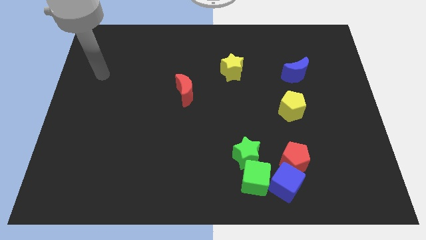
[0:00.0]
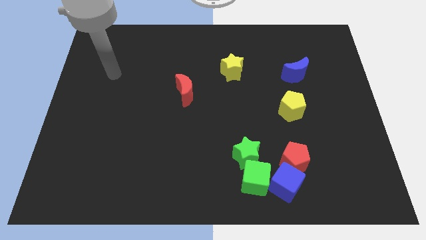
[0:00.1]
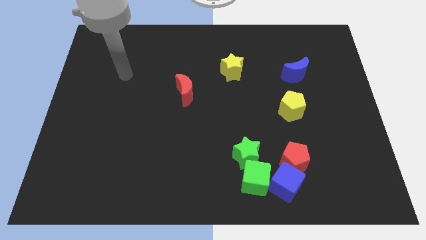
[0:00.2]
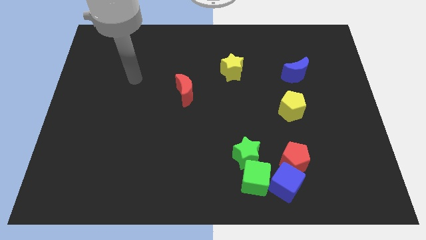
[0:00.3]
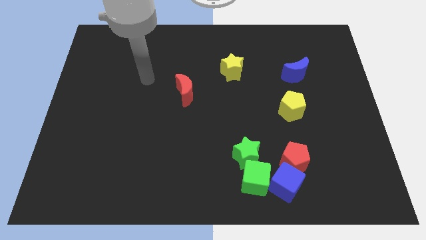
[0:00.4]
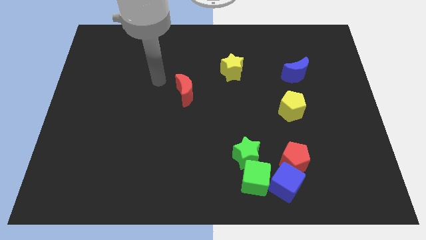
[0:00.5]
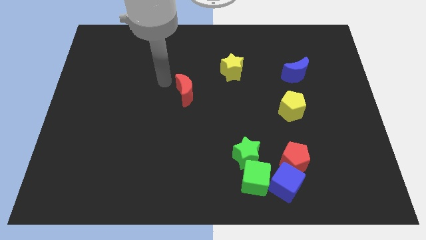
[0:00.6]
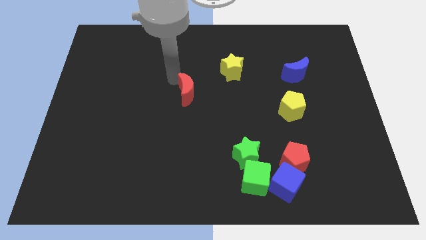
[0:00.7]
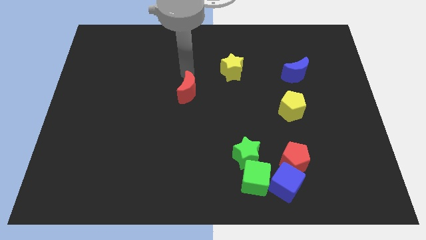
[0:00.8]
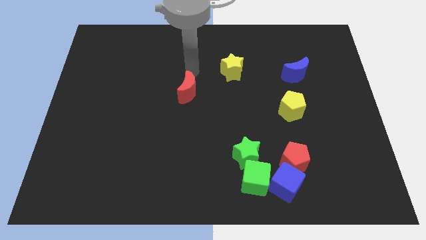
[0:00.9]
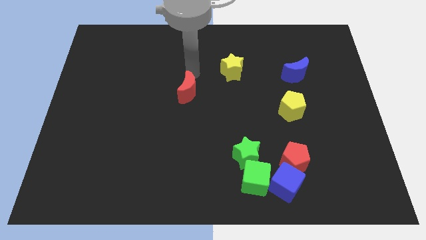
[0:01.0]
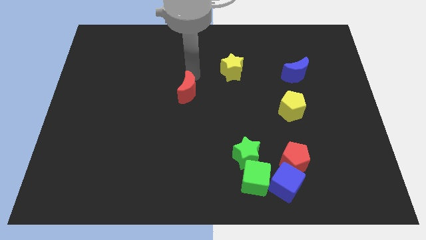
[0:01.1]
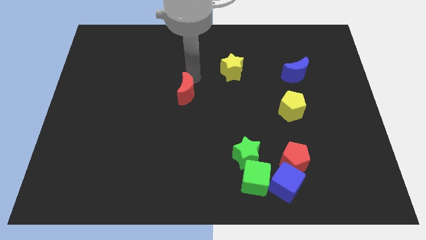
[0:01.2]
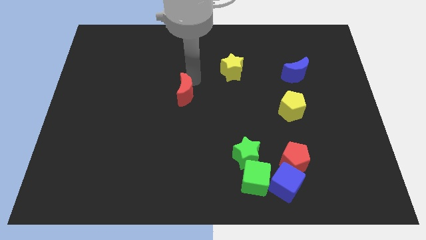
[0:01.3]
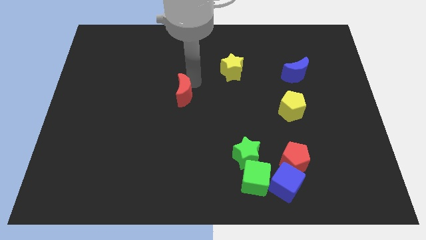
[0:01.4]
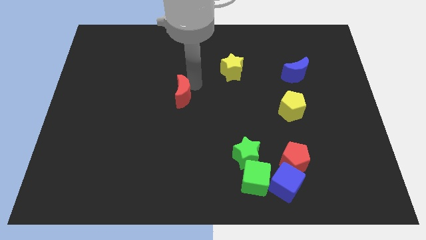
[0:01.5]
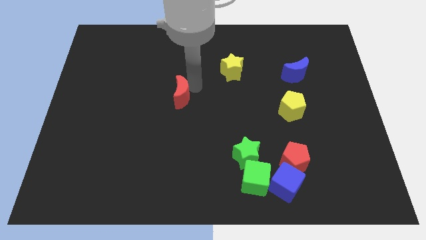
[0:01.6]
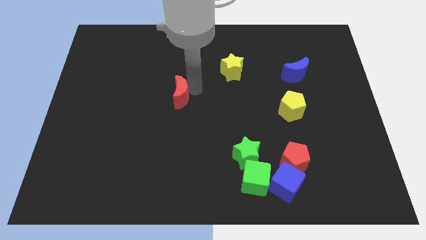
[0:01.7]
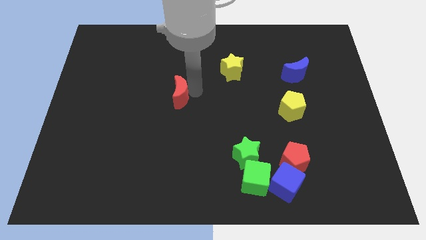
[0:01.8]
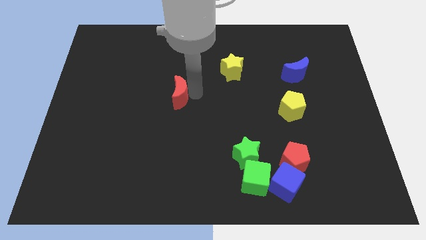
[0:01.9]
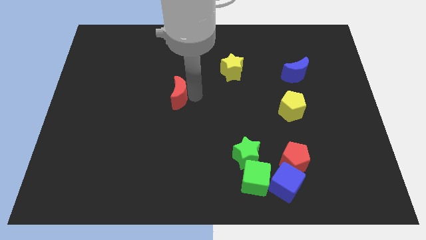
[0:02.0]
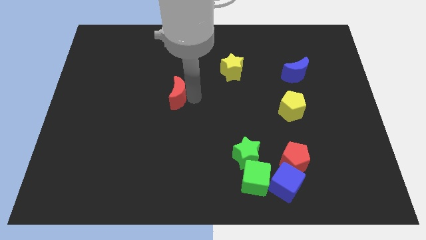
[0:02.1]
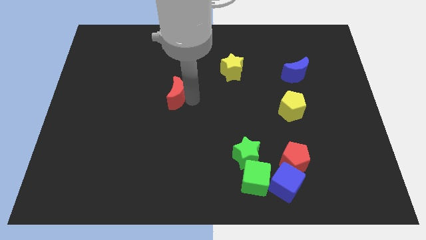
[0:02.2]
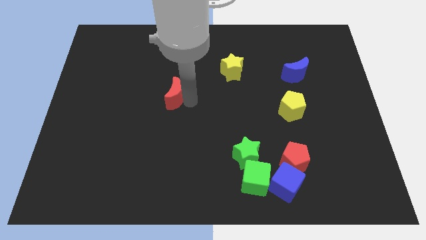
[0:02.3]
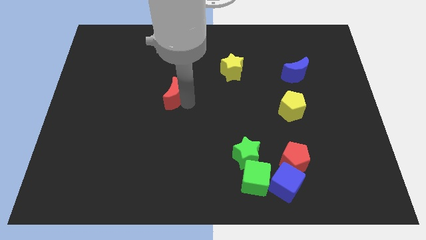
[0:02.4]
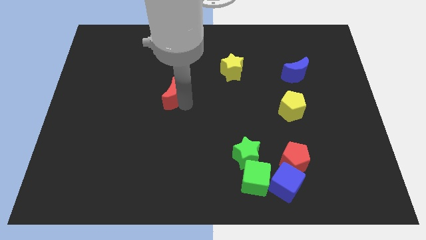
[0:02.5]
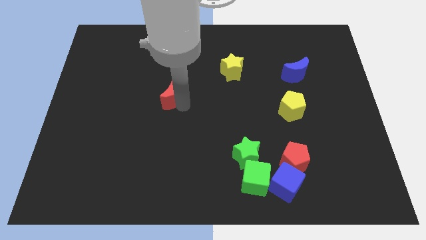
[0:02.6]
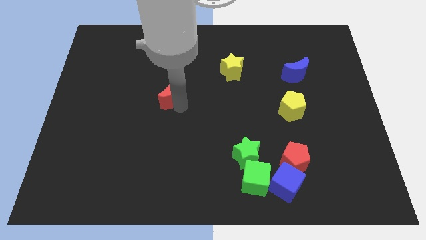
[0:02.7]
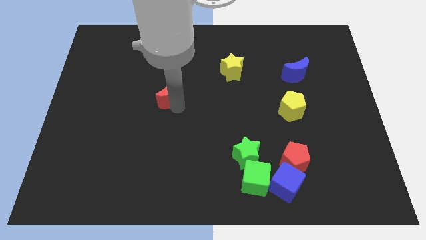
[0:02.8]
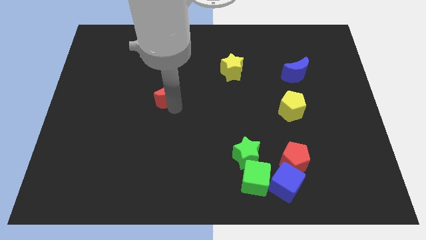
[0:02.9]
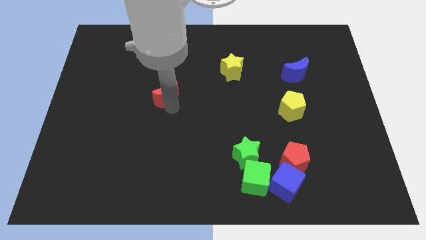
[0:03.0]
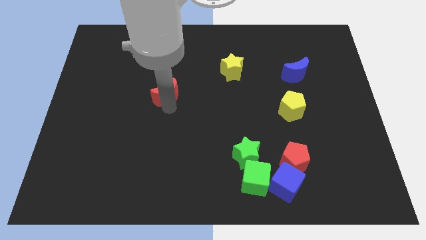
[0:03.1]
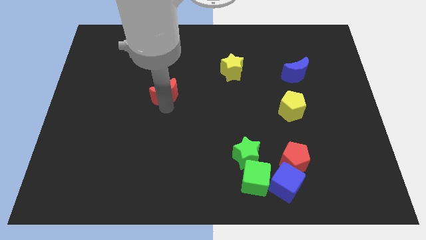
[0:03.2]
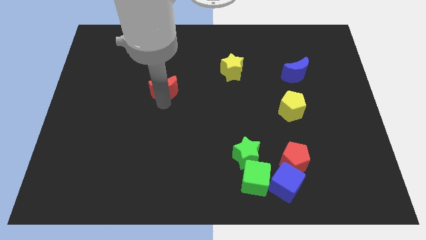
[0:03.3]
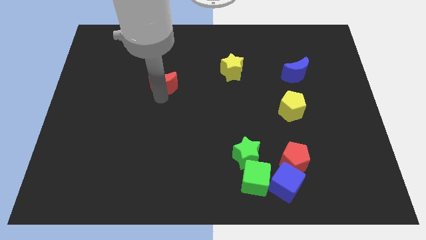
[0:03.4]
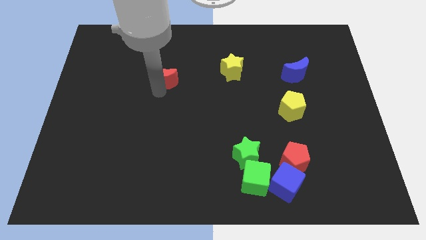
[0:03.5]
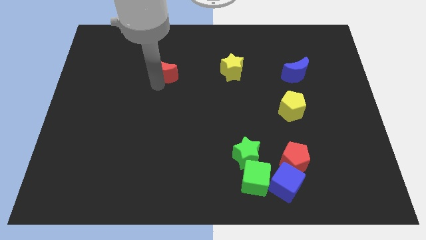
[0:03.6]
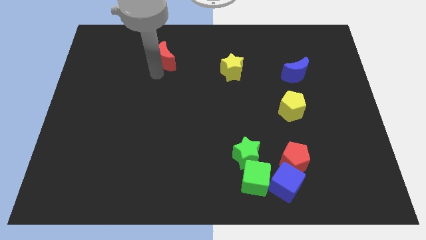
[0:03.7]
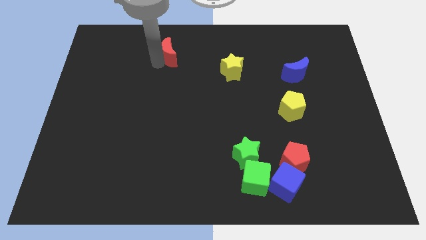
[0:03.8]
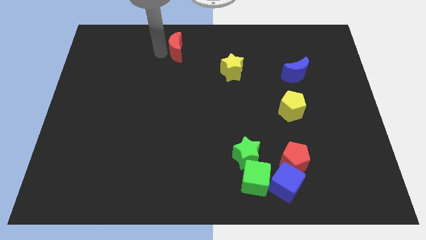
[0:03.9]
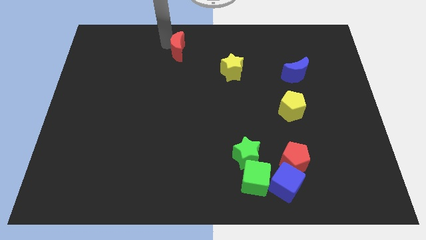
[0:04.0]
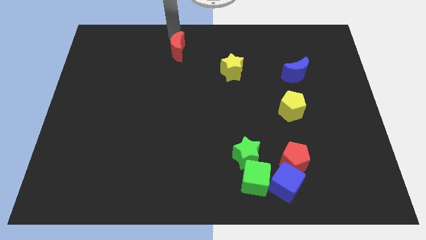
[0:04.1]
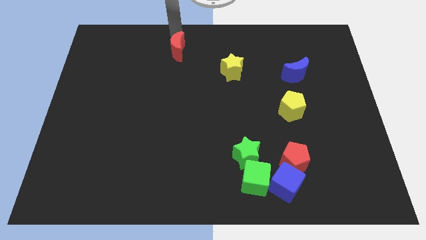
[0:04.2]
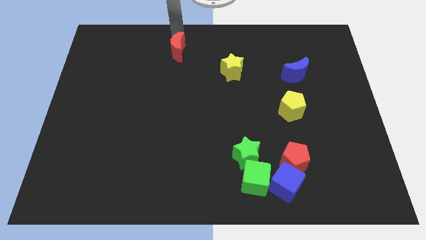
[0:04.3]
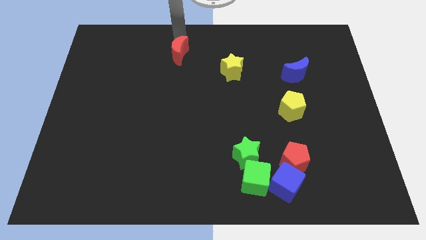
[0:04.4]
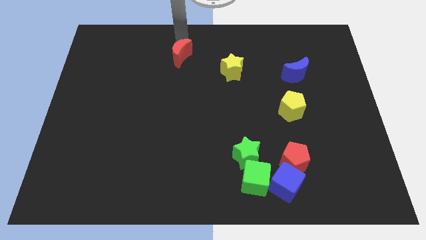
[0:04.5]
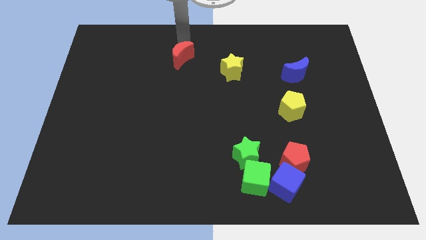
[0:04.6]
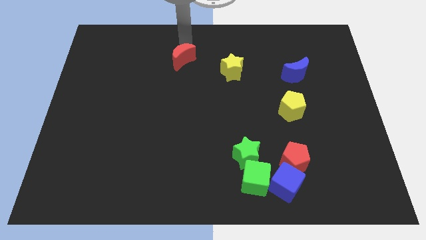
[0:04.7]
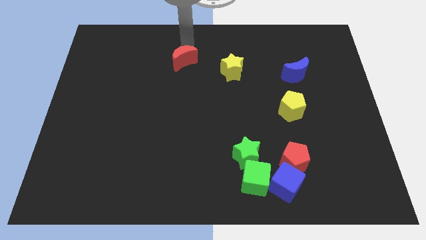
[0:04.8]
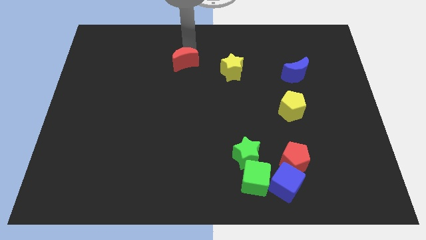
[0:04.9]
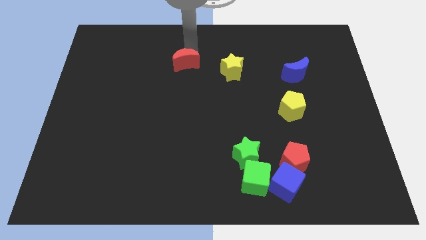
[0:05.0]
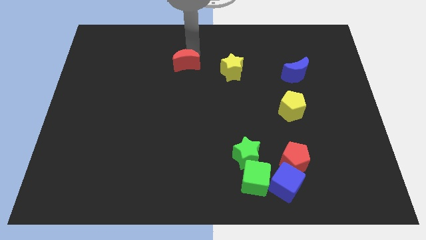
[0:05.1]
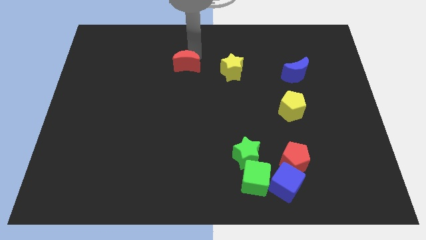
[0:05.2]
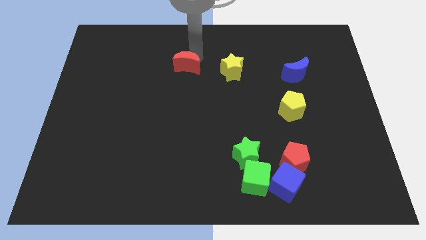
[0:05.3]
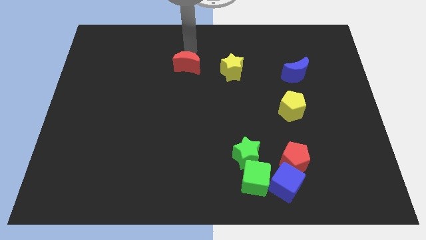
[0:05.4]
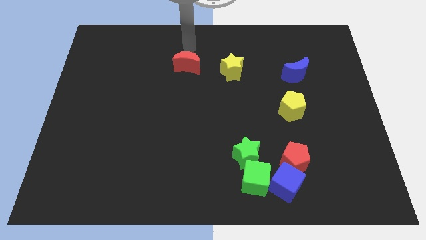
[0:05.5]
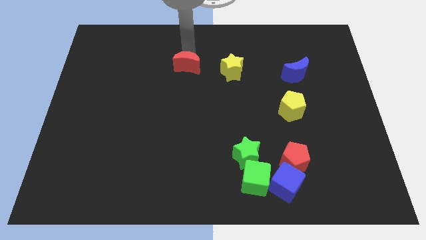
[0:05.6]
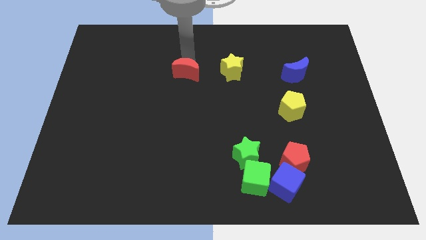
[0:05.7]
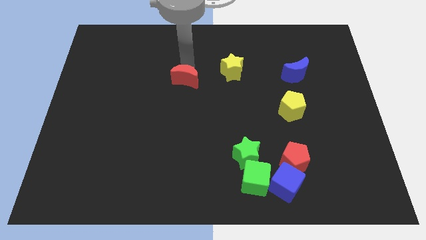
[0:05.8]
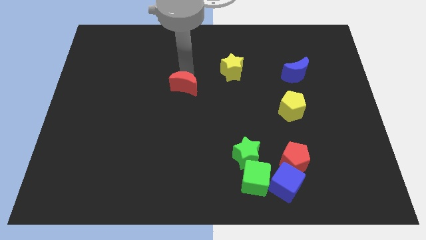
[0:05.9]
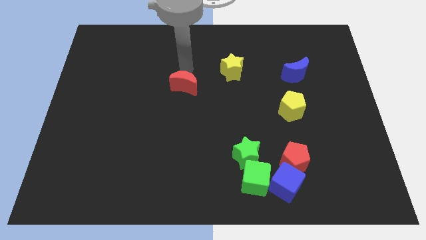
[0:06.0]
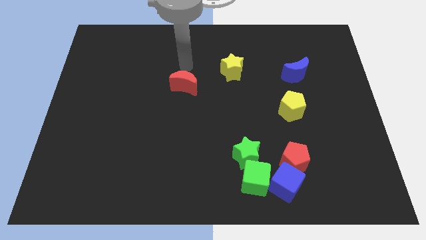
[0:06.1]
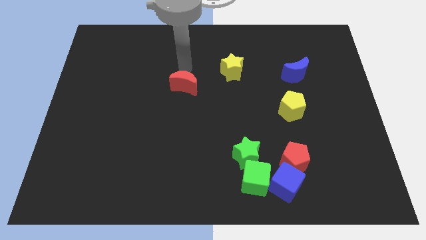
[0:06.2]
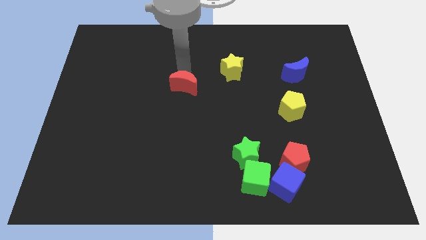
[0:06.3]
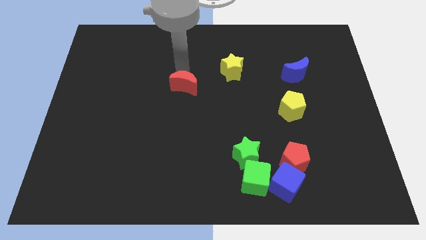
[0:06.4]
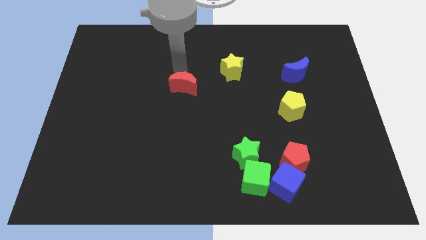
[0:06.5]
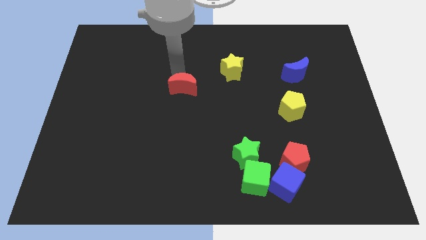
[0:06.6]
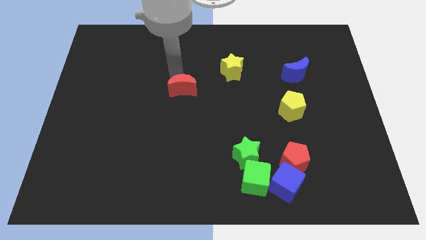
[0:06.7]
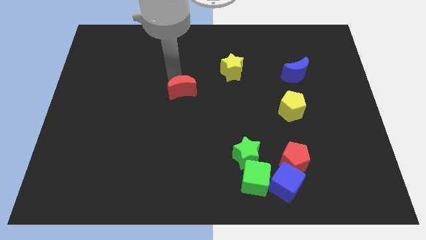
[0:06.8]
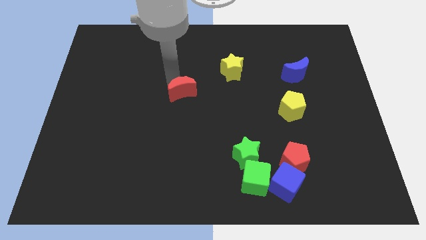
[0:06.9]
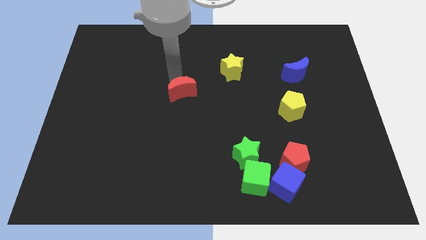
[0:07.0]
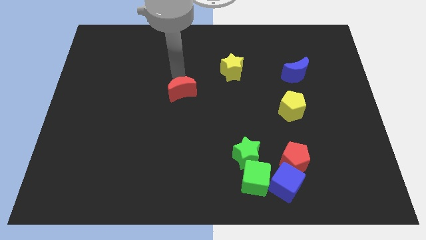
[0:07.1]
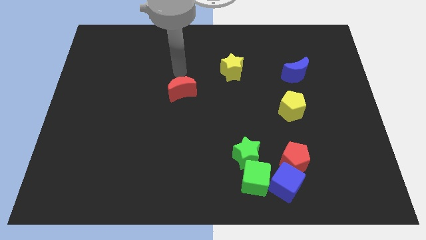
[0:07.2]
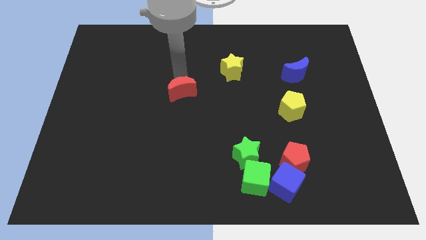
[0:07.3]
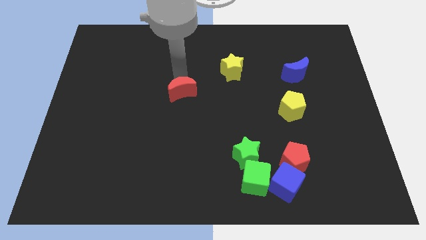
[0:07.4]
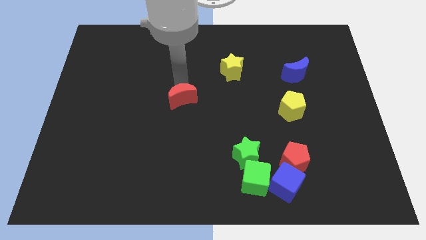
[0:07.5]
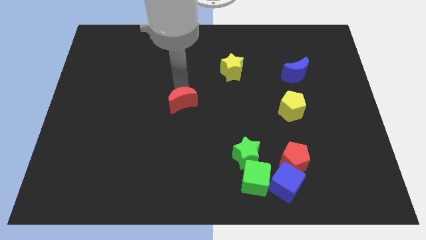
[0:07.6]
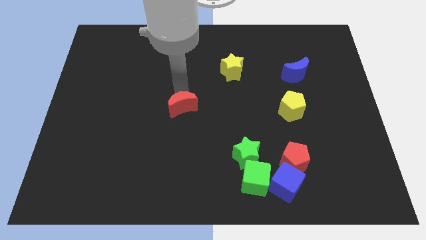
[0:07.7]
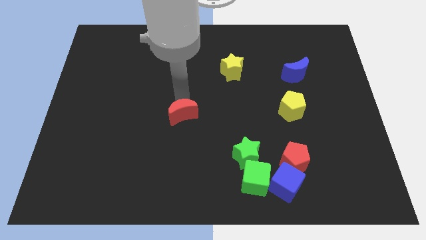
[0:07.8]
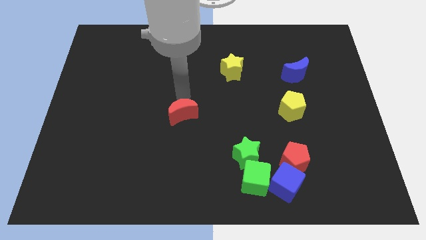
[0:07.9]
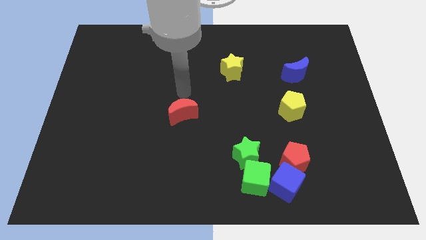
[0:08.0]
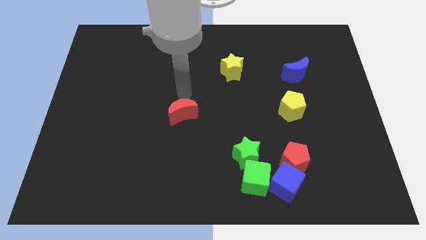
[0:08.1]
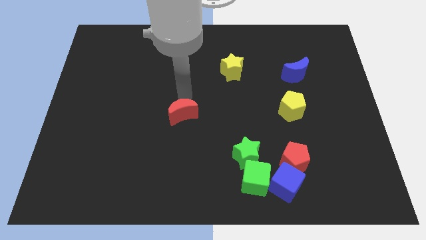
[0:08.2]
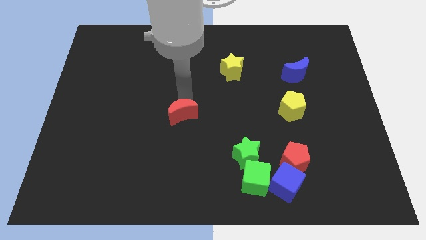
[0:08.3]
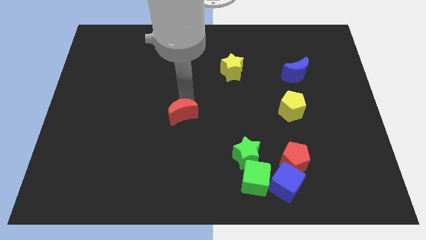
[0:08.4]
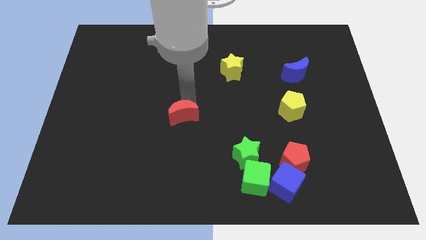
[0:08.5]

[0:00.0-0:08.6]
move the red moon a little down
